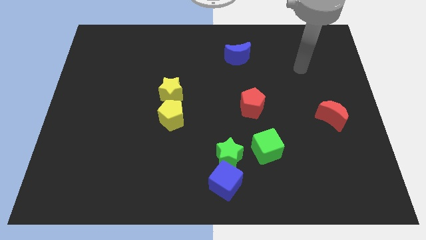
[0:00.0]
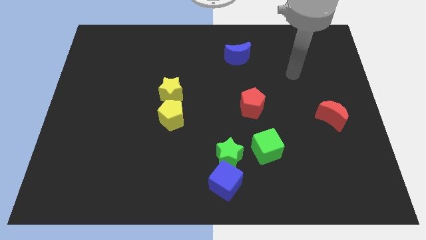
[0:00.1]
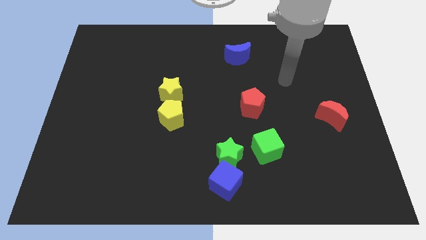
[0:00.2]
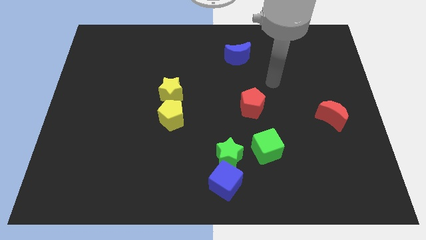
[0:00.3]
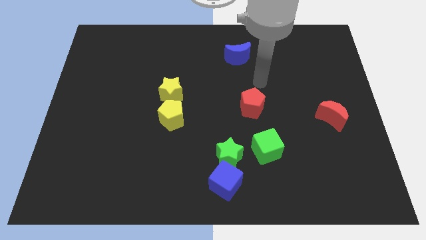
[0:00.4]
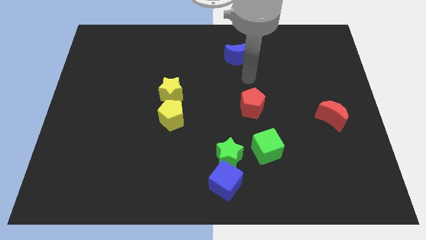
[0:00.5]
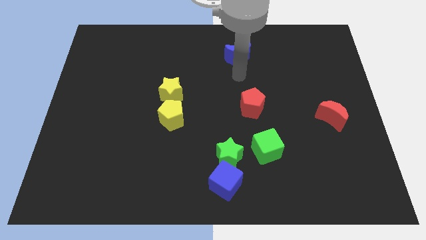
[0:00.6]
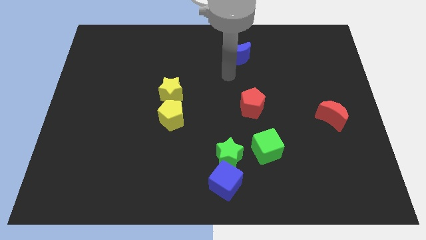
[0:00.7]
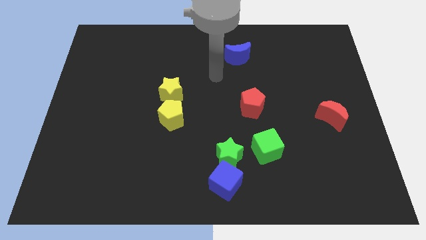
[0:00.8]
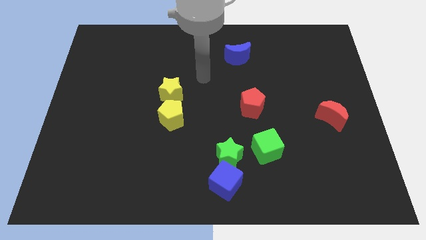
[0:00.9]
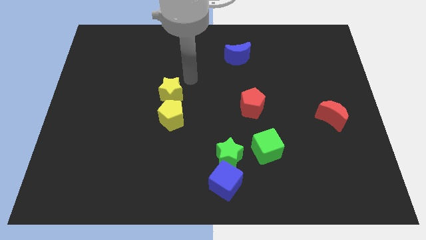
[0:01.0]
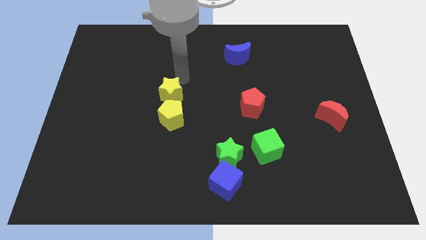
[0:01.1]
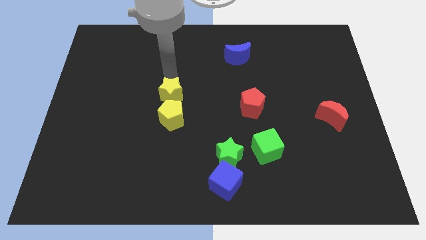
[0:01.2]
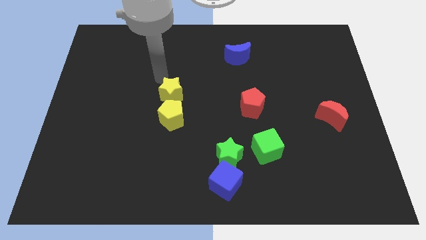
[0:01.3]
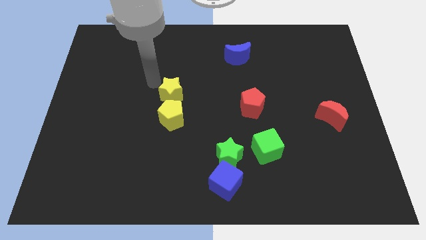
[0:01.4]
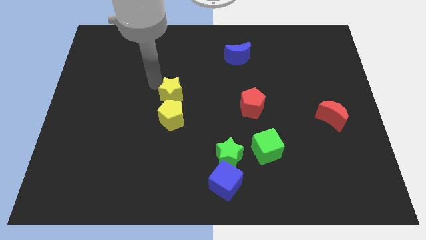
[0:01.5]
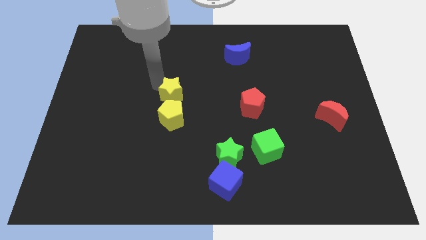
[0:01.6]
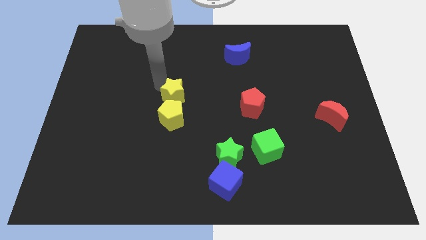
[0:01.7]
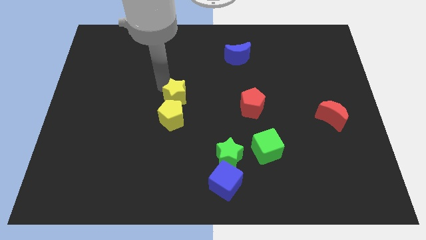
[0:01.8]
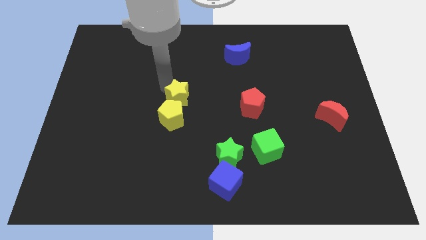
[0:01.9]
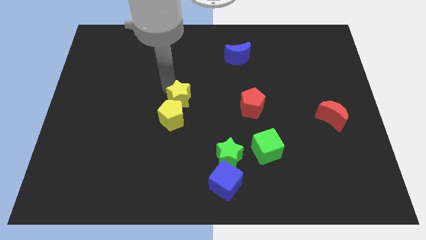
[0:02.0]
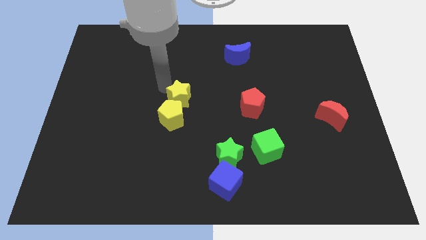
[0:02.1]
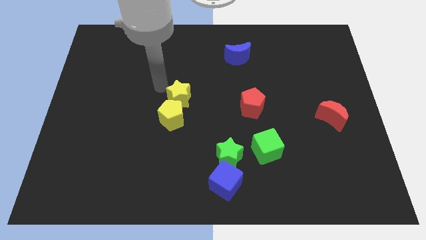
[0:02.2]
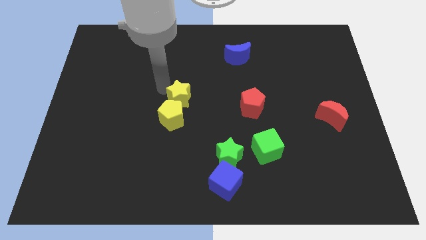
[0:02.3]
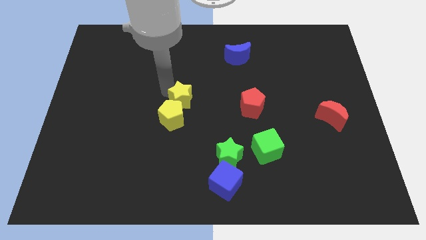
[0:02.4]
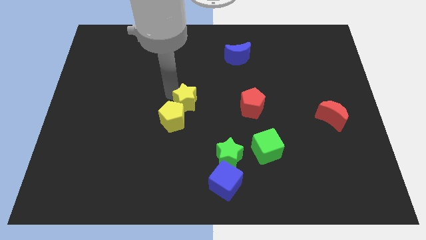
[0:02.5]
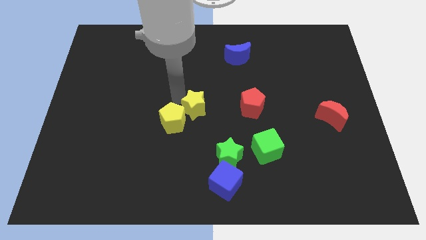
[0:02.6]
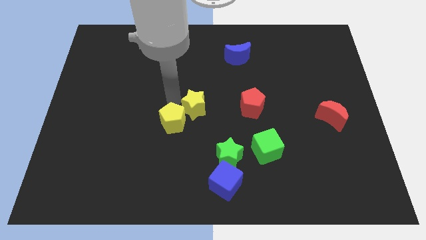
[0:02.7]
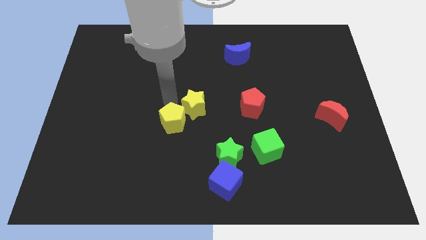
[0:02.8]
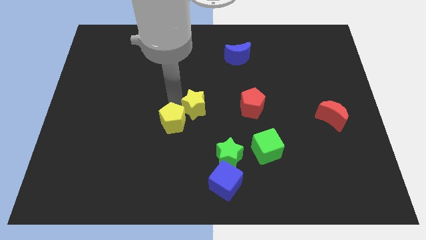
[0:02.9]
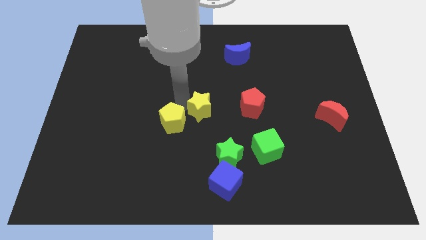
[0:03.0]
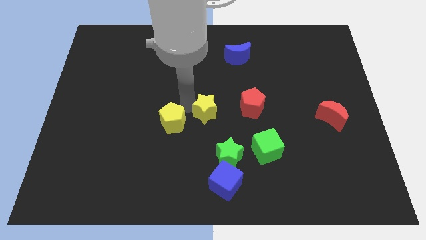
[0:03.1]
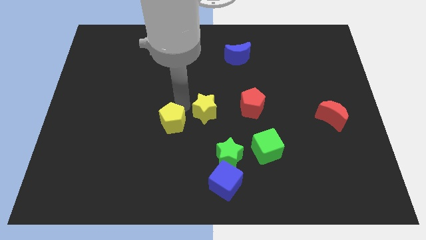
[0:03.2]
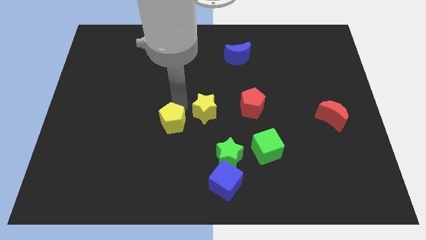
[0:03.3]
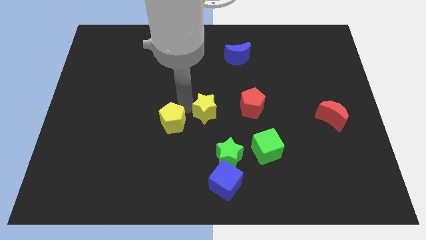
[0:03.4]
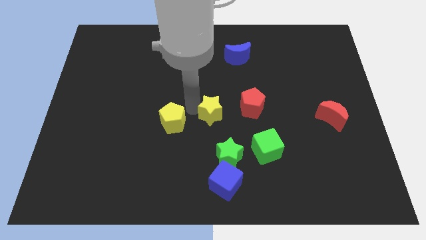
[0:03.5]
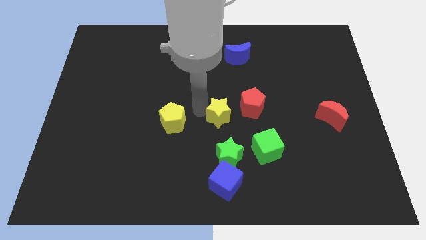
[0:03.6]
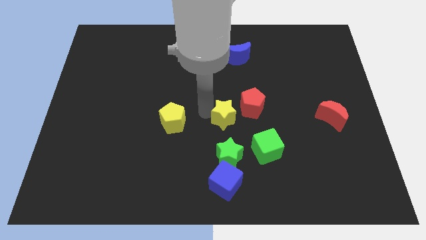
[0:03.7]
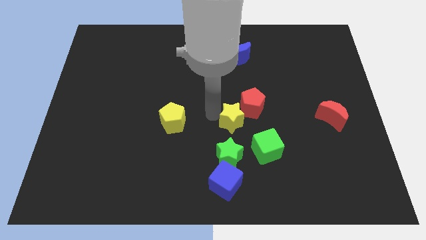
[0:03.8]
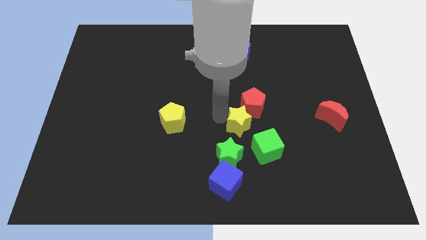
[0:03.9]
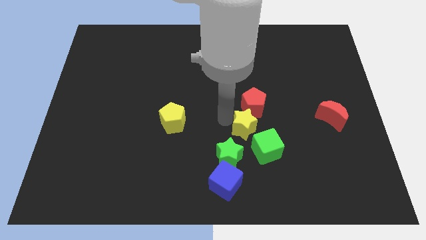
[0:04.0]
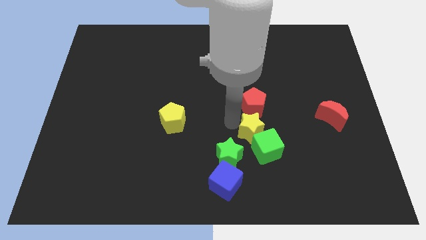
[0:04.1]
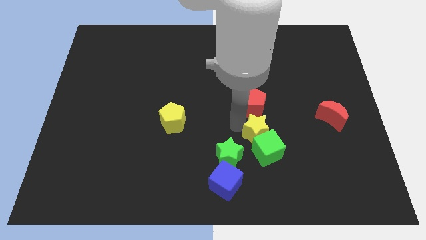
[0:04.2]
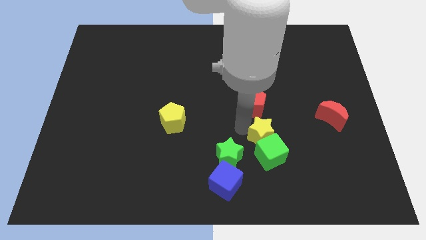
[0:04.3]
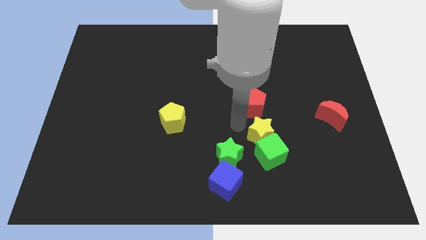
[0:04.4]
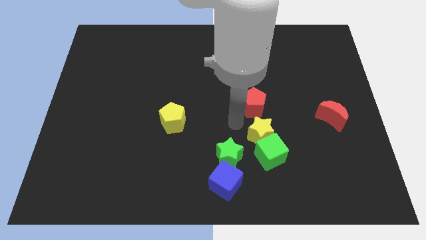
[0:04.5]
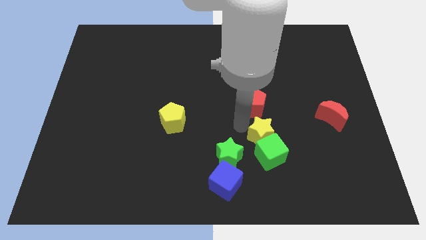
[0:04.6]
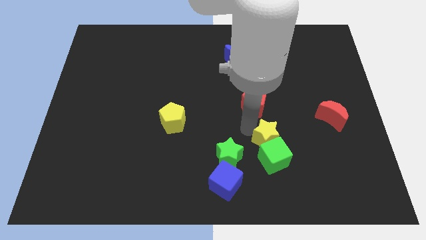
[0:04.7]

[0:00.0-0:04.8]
put the yellow star just right of the green star

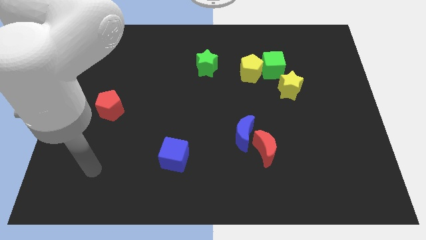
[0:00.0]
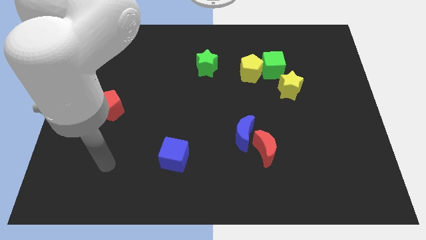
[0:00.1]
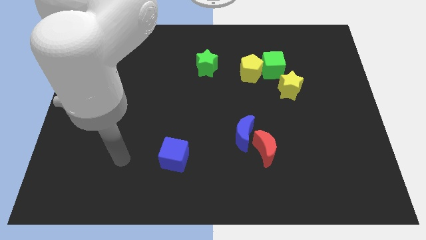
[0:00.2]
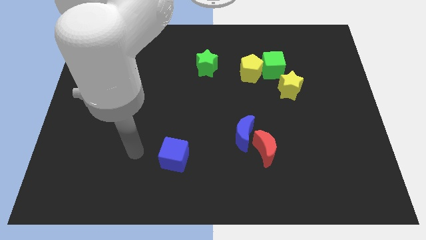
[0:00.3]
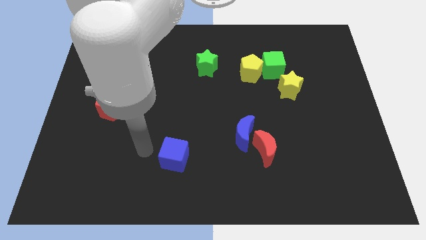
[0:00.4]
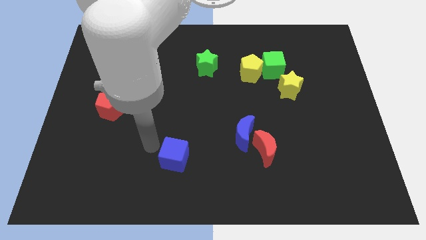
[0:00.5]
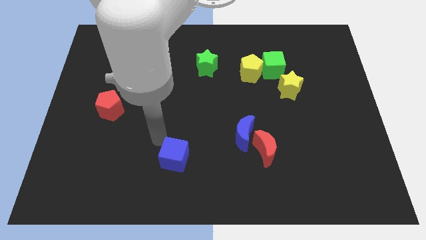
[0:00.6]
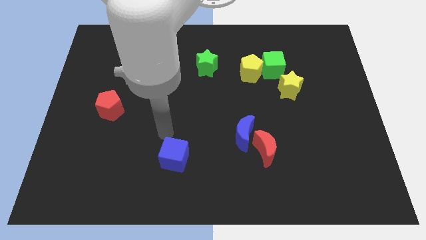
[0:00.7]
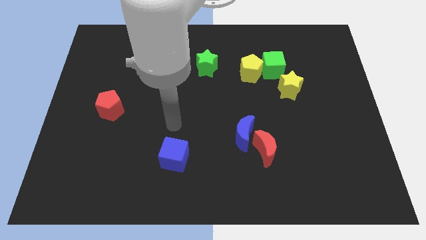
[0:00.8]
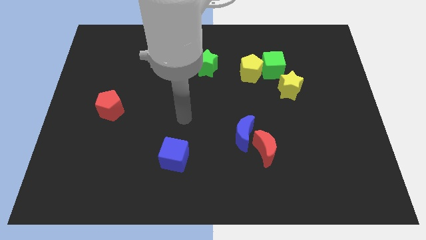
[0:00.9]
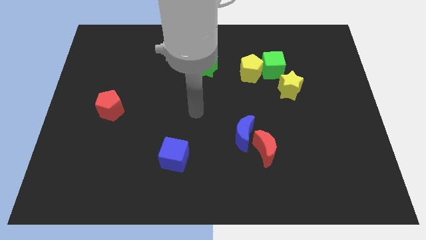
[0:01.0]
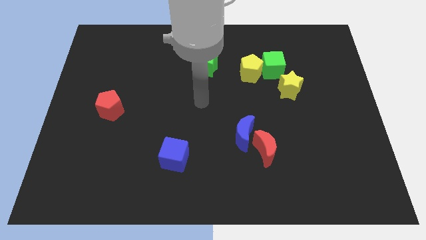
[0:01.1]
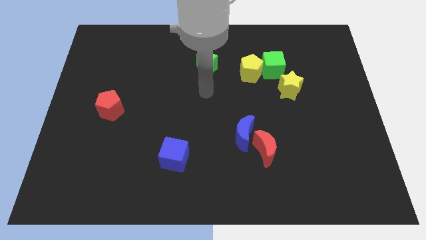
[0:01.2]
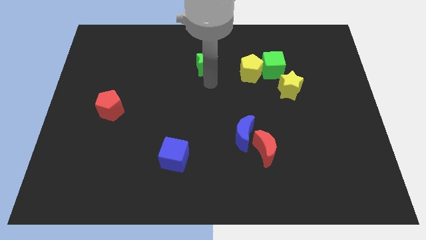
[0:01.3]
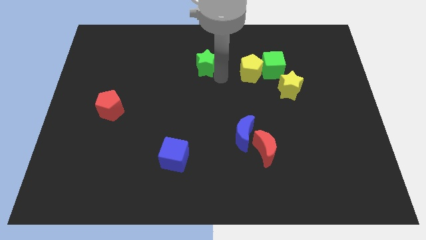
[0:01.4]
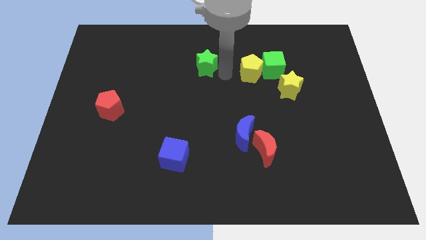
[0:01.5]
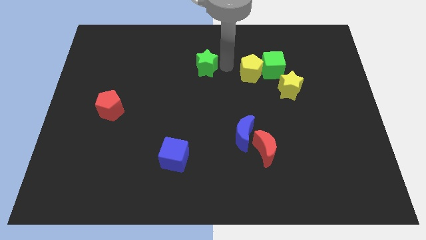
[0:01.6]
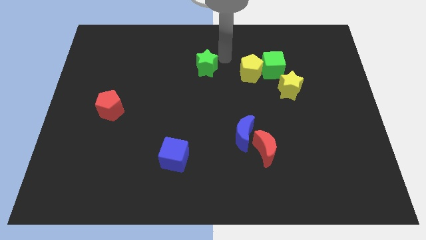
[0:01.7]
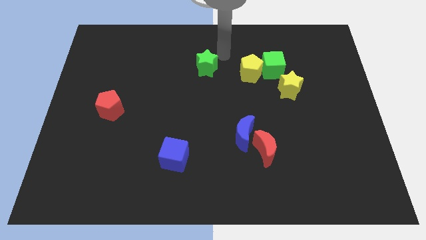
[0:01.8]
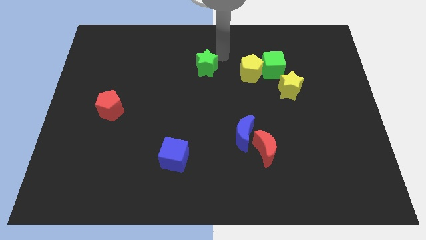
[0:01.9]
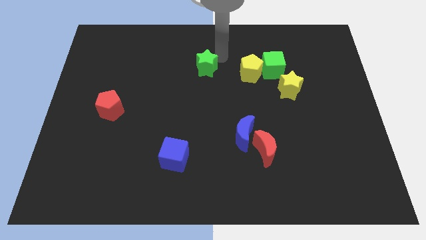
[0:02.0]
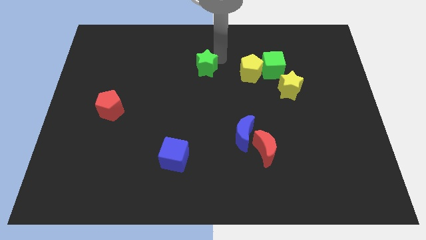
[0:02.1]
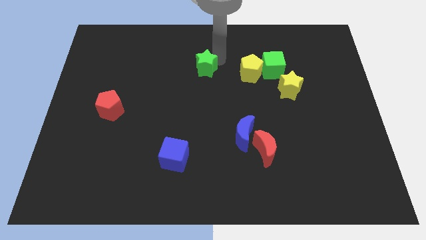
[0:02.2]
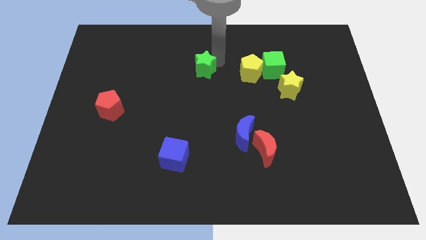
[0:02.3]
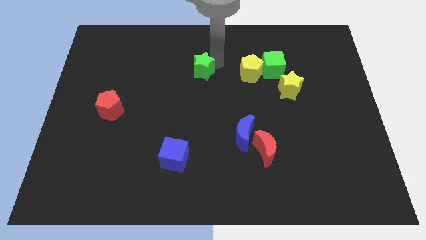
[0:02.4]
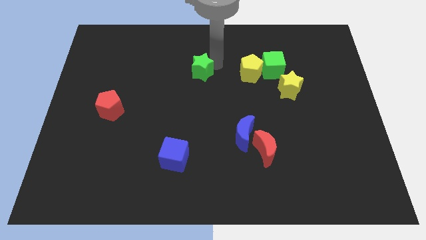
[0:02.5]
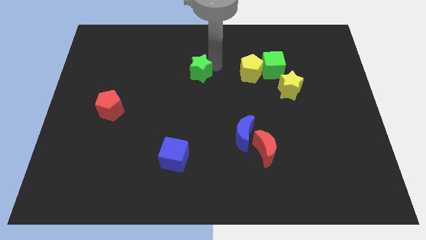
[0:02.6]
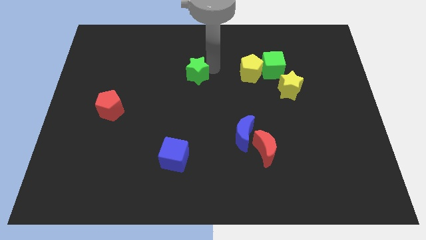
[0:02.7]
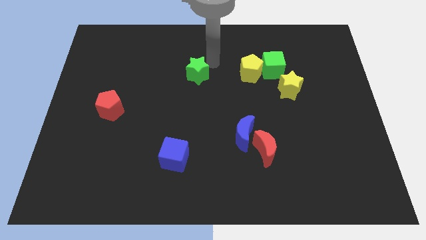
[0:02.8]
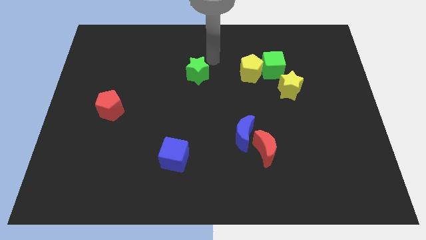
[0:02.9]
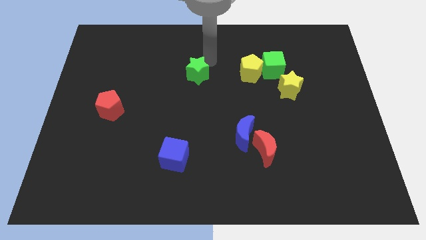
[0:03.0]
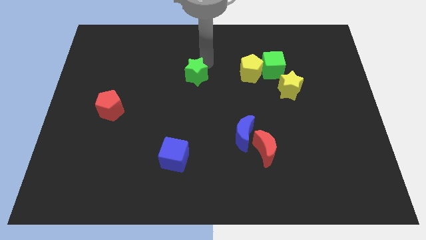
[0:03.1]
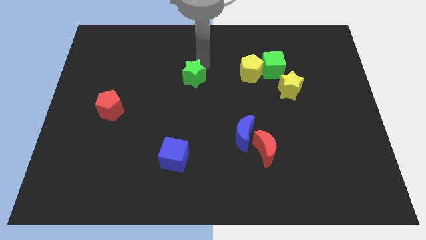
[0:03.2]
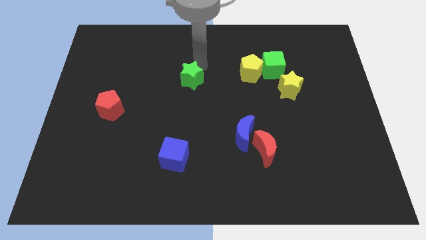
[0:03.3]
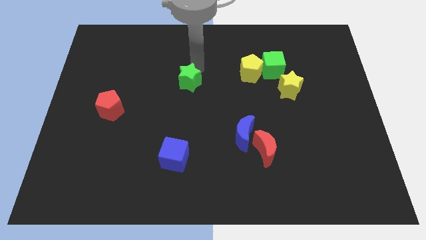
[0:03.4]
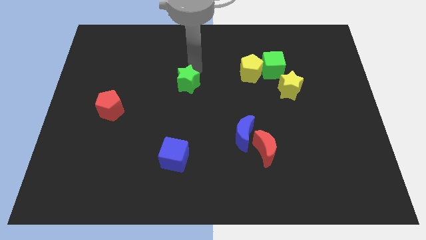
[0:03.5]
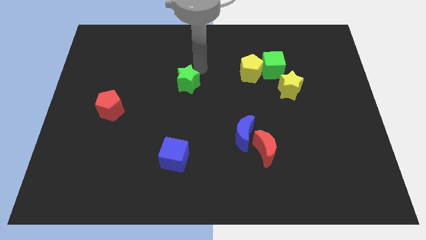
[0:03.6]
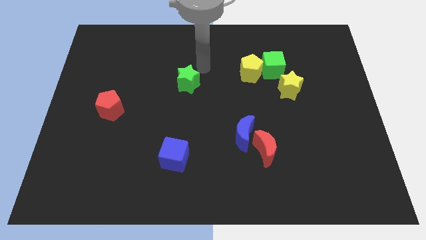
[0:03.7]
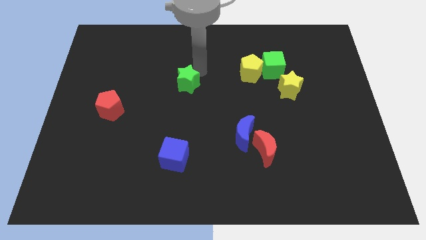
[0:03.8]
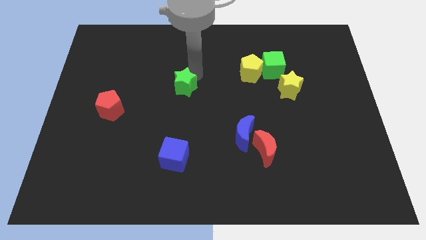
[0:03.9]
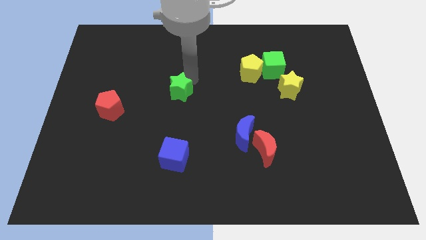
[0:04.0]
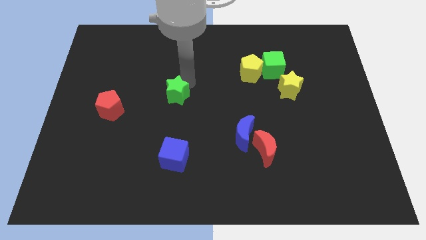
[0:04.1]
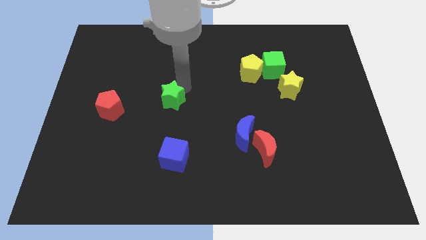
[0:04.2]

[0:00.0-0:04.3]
push the green star to the right of the red pentagon
